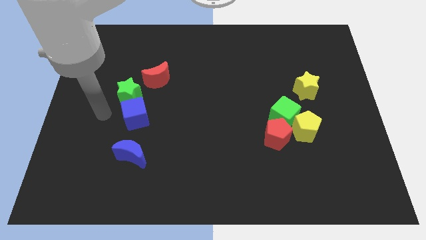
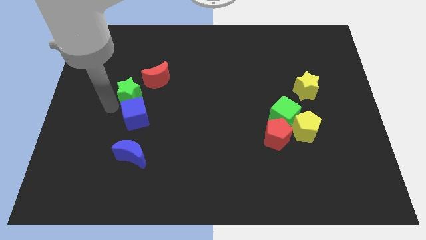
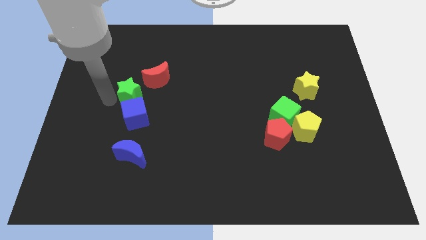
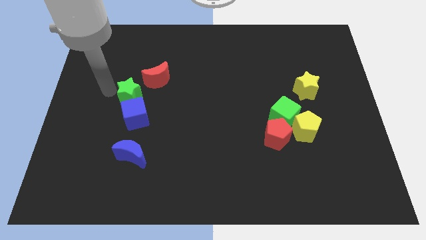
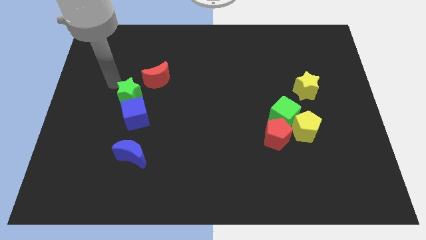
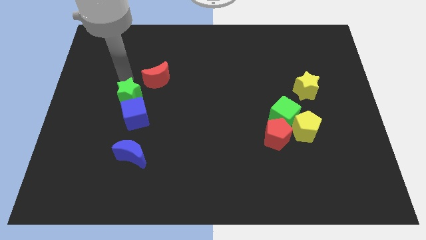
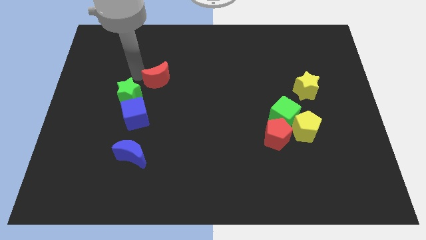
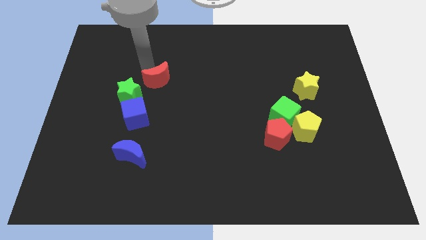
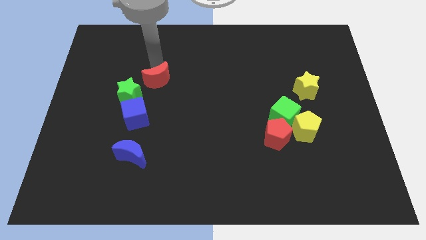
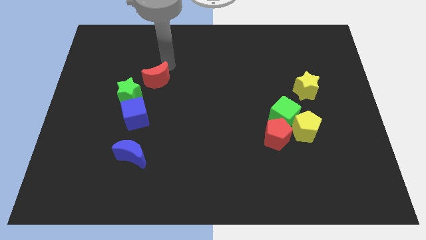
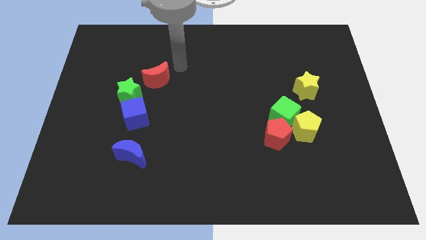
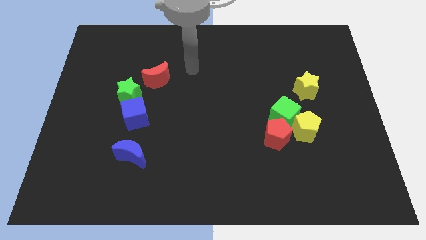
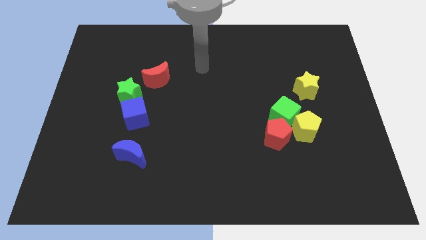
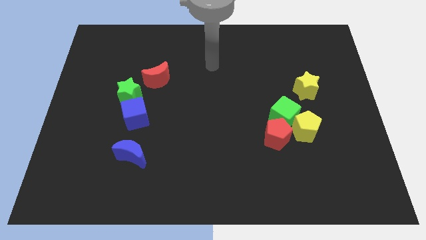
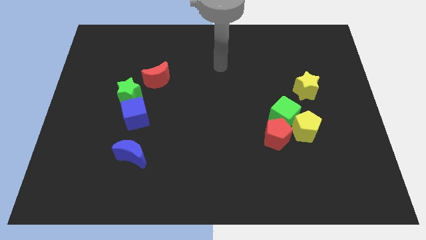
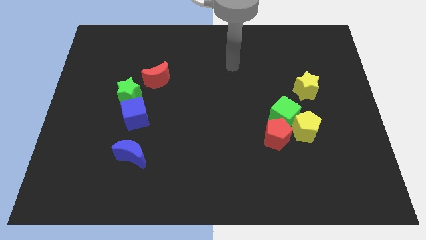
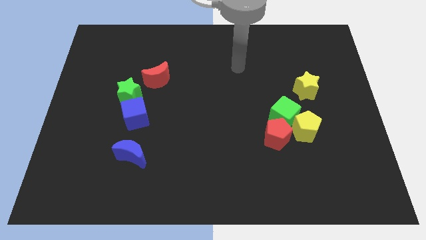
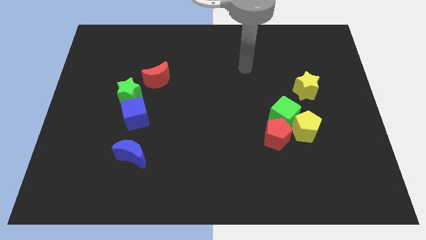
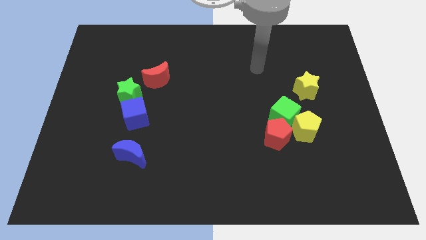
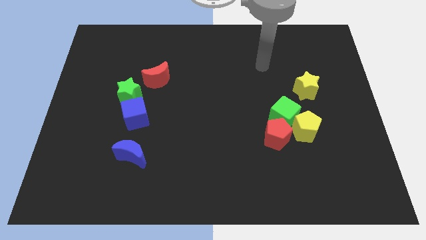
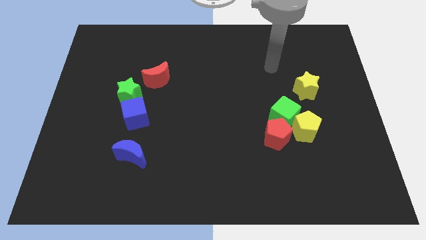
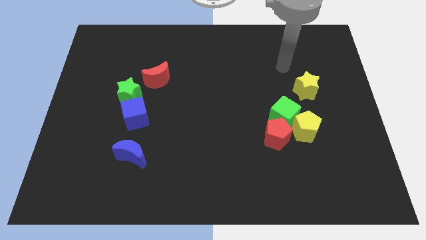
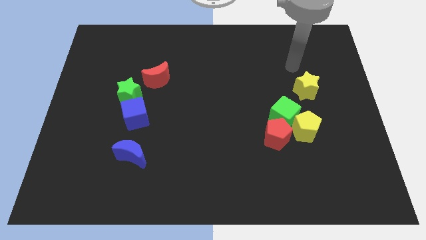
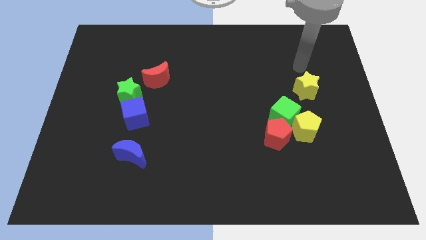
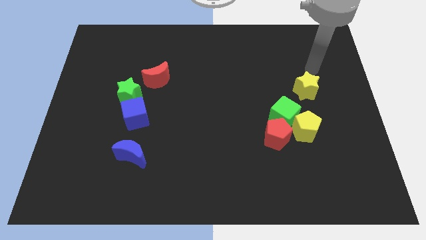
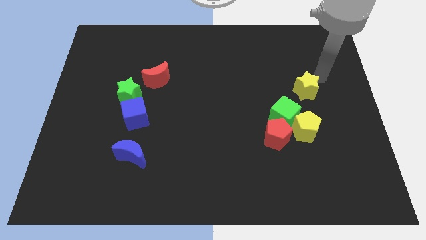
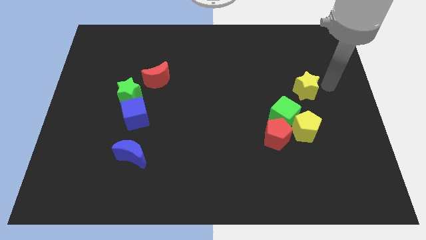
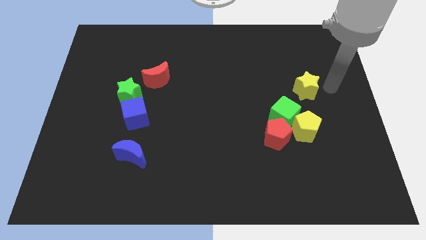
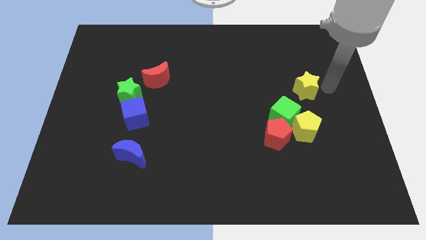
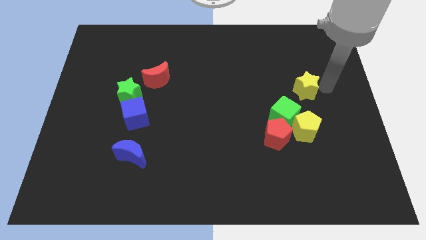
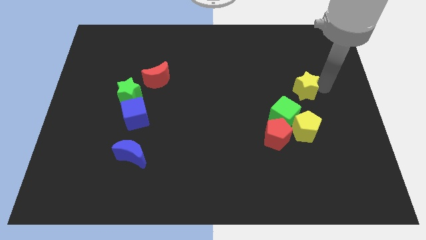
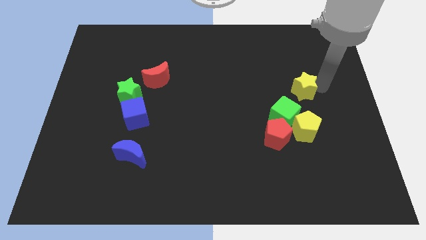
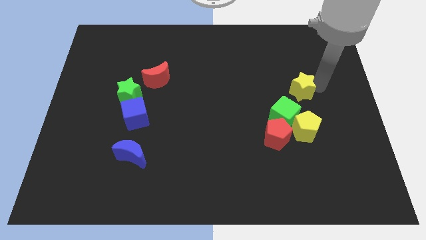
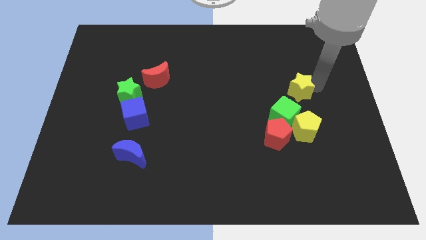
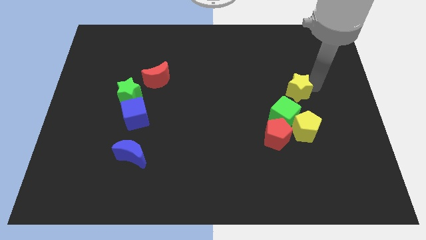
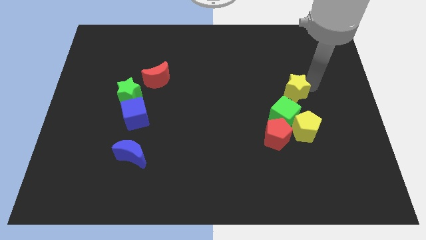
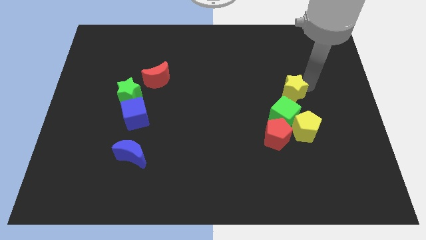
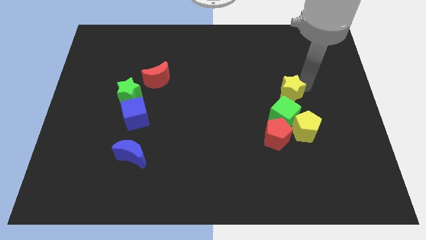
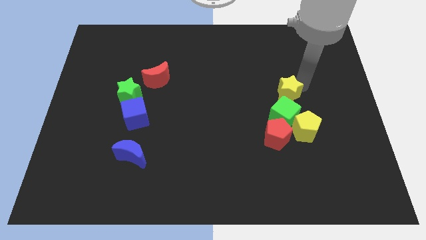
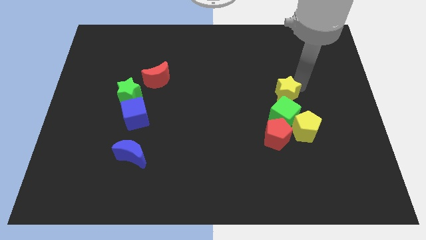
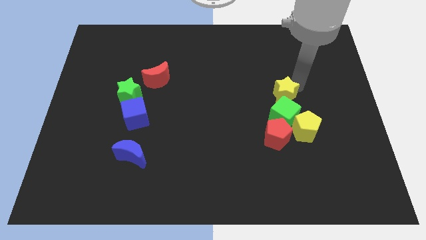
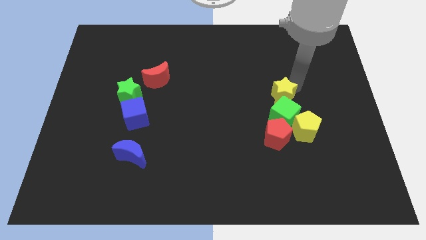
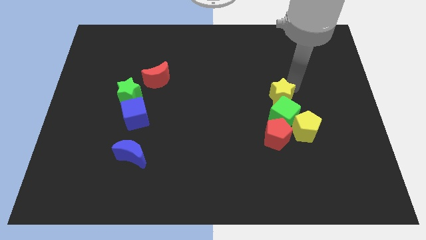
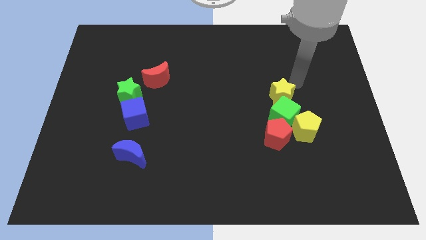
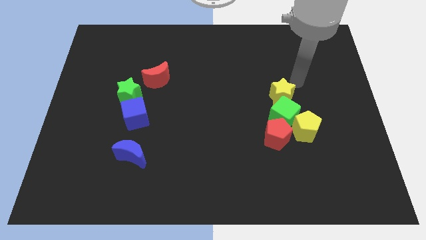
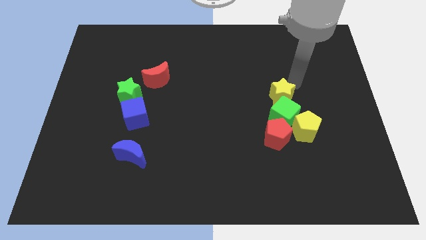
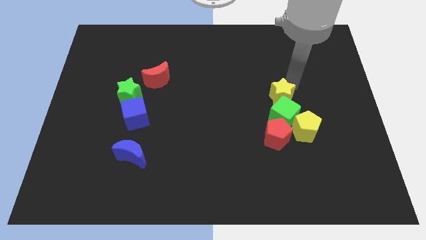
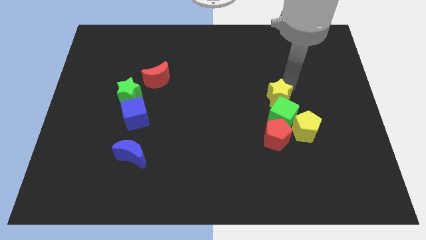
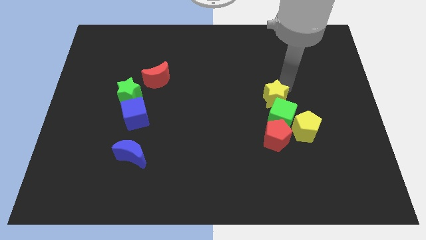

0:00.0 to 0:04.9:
slide the yellow star somewhat downwards and to the left

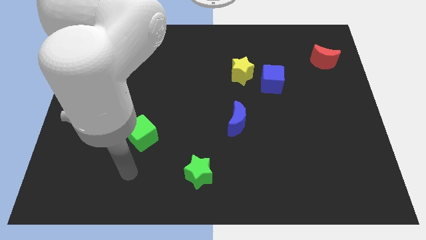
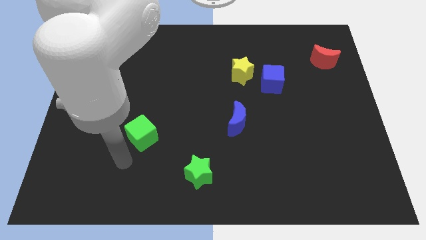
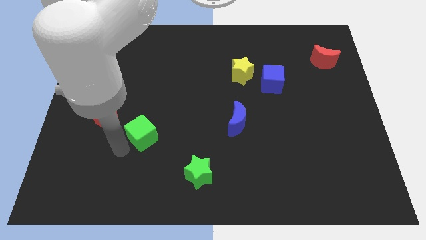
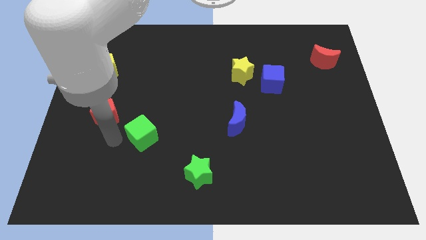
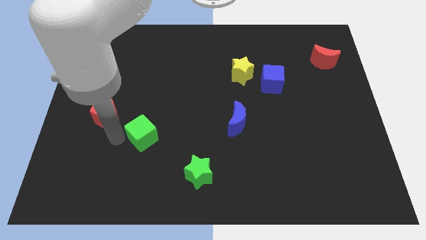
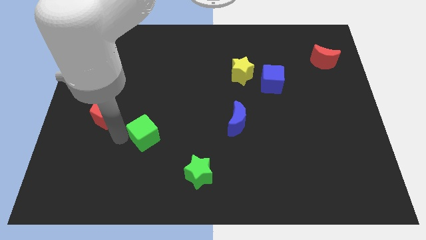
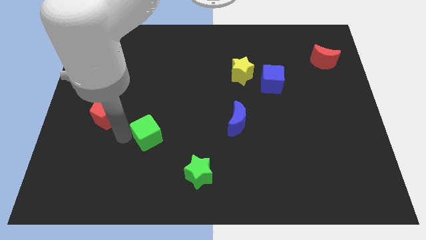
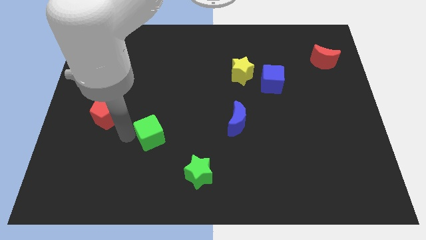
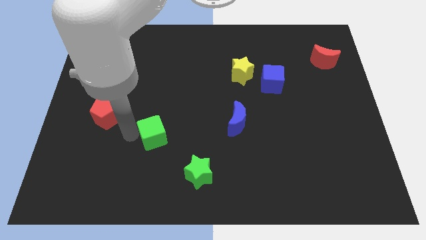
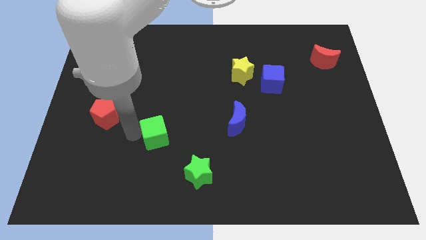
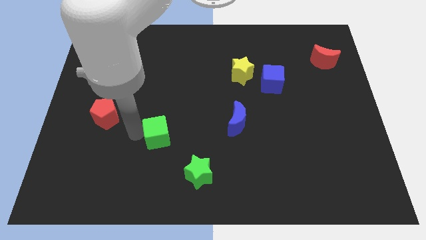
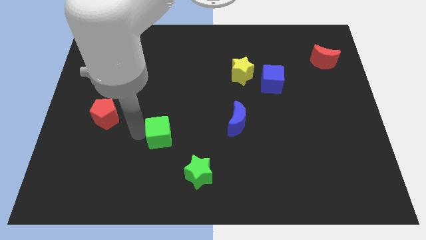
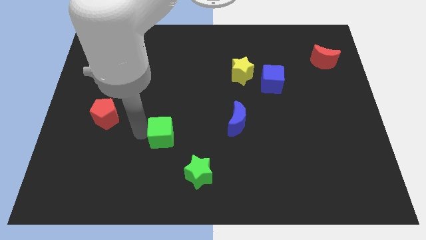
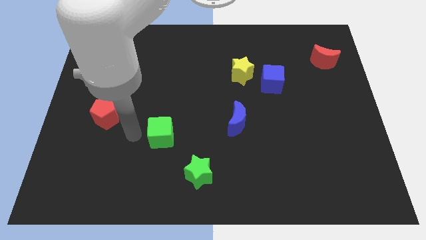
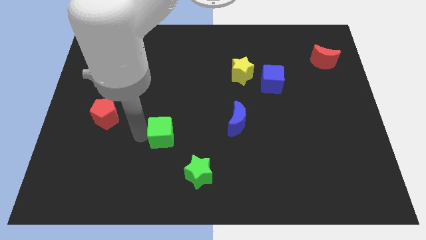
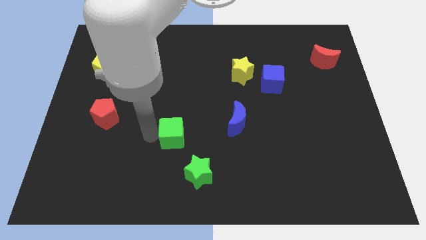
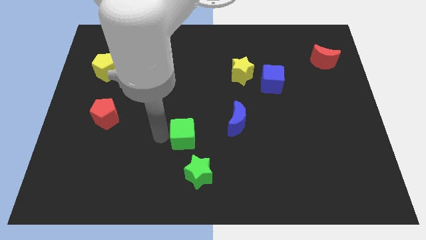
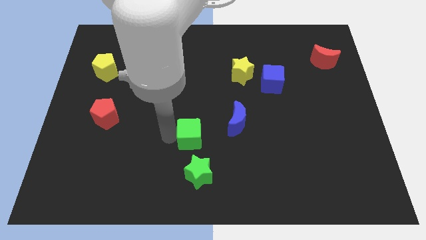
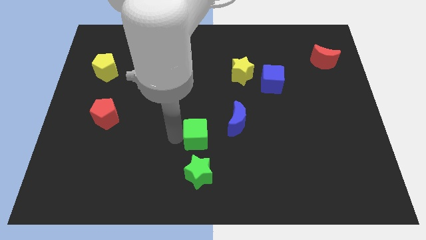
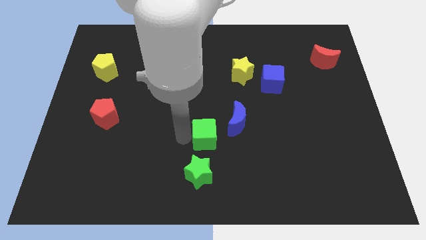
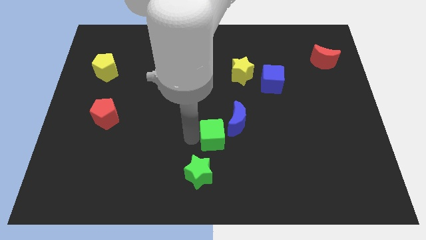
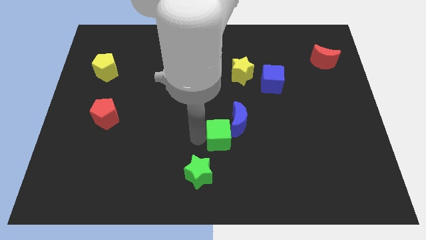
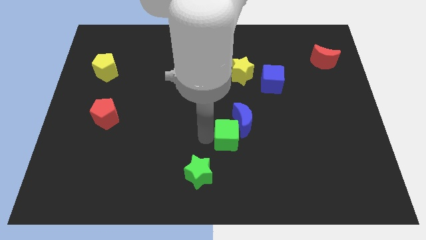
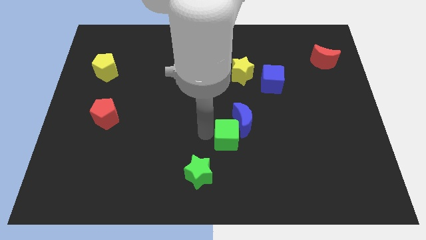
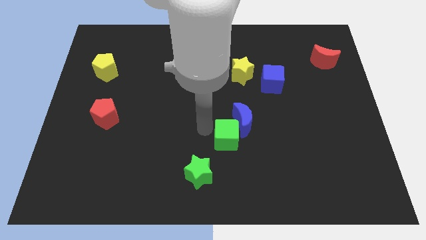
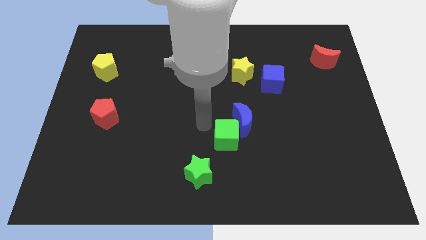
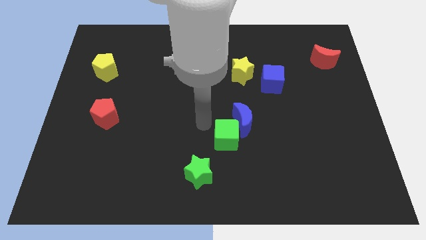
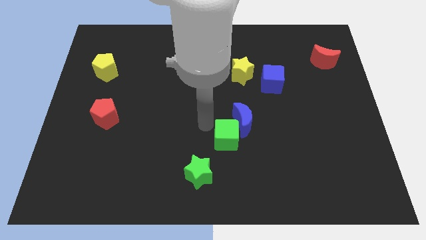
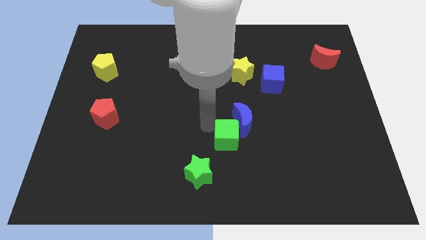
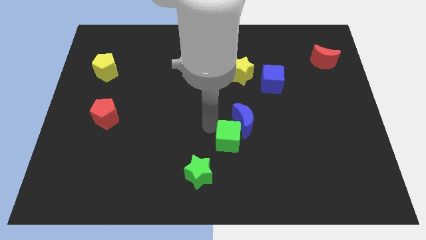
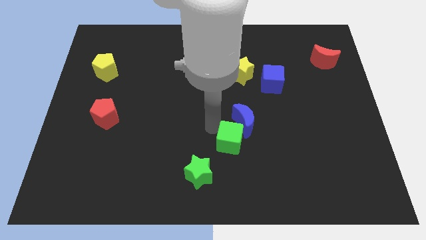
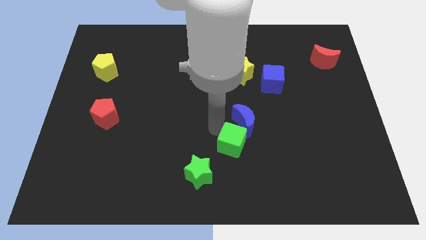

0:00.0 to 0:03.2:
move the green cube right
